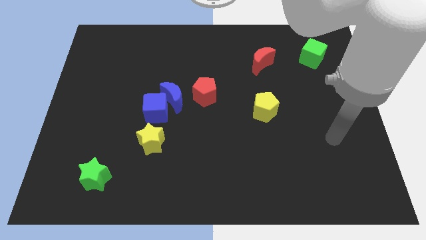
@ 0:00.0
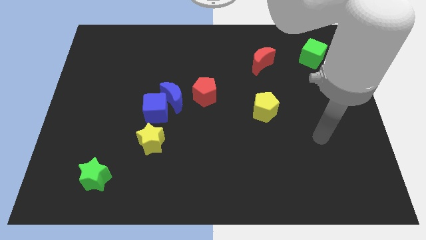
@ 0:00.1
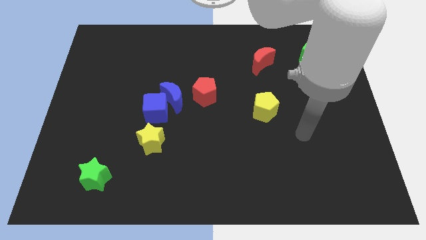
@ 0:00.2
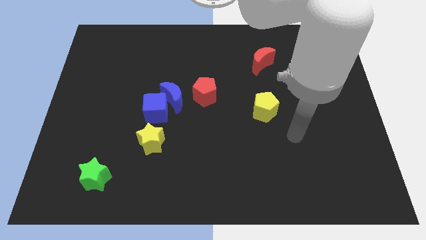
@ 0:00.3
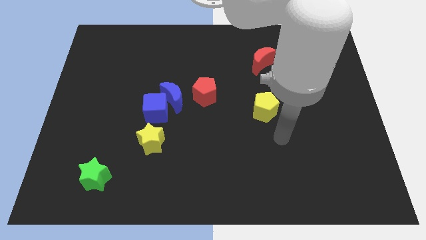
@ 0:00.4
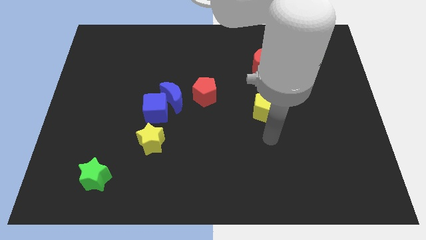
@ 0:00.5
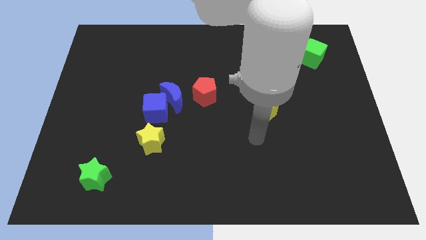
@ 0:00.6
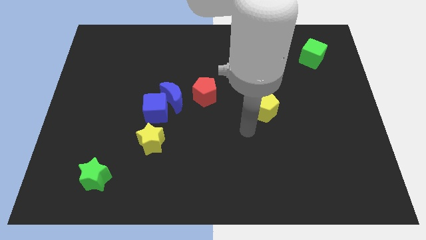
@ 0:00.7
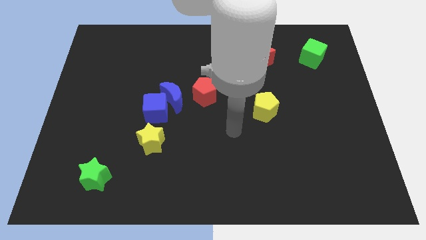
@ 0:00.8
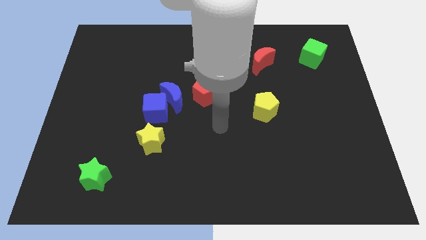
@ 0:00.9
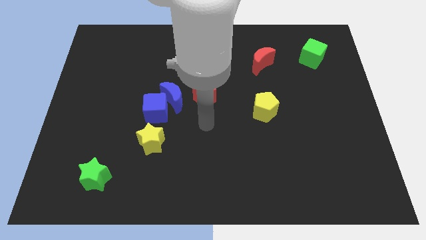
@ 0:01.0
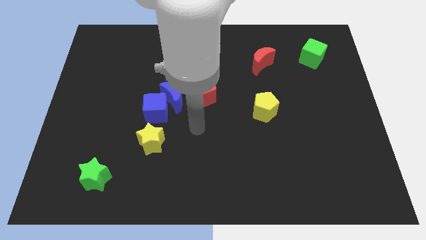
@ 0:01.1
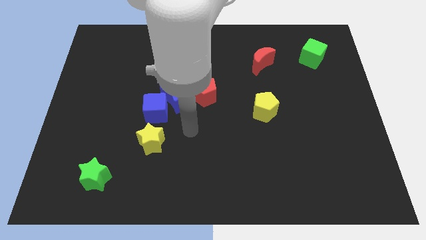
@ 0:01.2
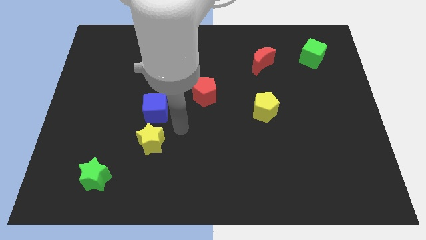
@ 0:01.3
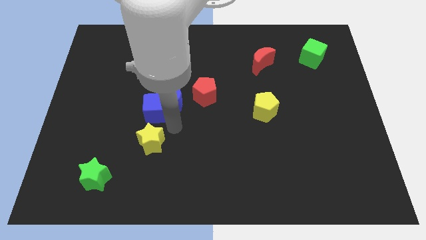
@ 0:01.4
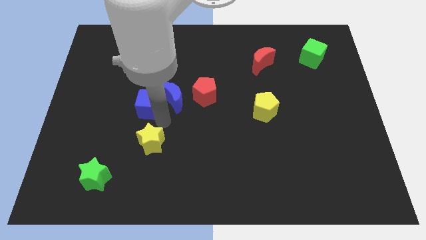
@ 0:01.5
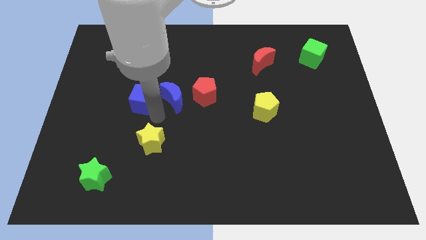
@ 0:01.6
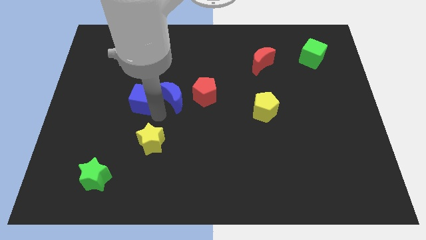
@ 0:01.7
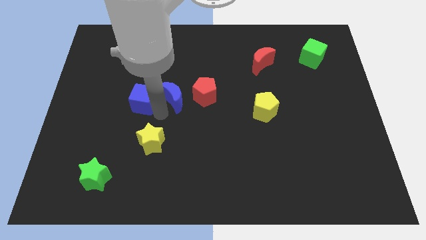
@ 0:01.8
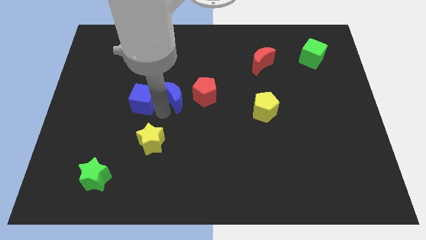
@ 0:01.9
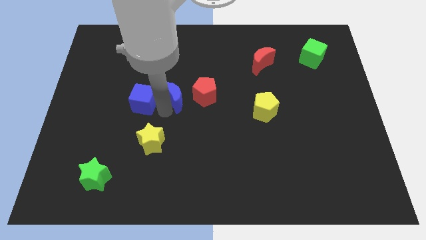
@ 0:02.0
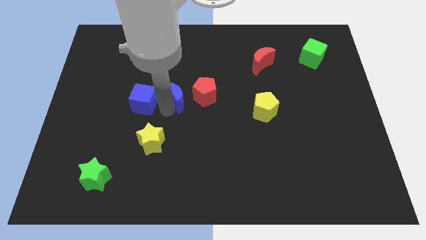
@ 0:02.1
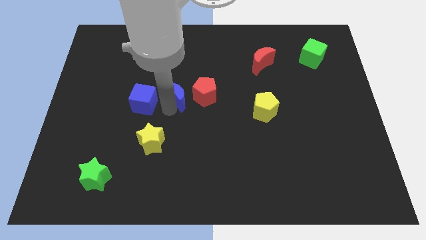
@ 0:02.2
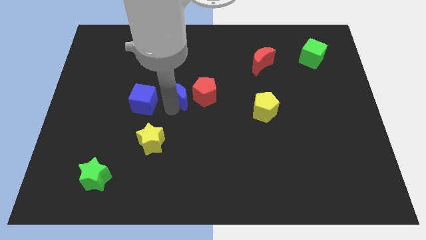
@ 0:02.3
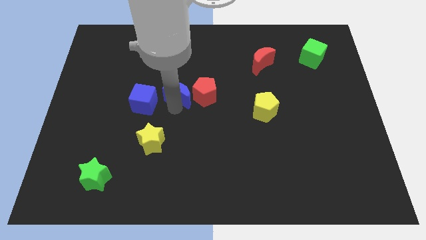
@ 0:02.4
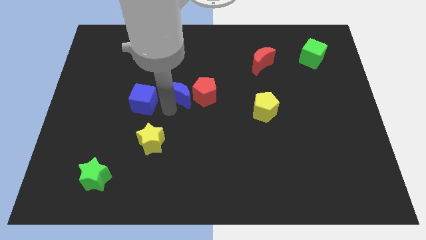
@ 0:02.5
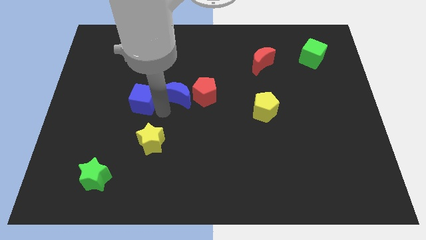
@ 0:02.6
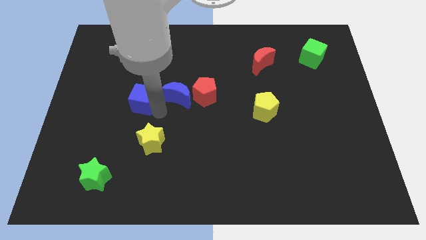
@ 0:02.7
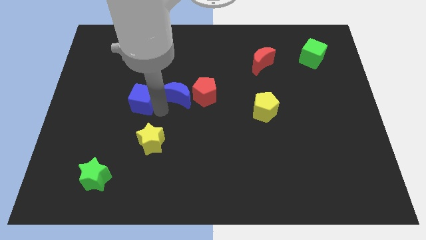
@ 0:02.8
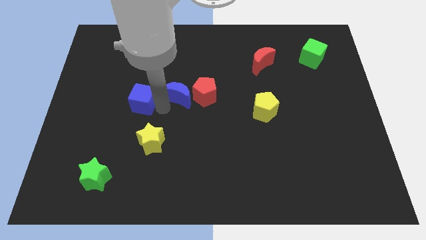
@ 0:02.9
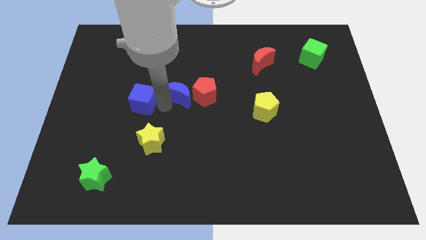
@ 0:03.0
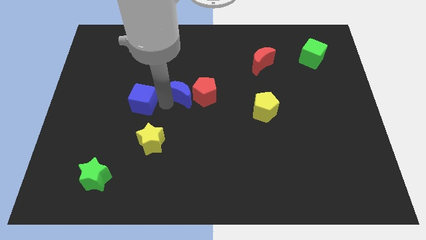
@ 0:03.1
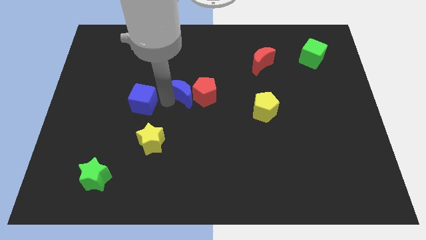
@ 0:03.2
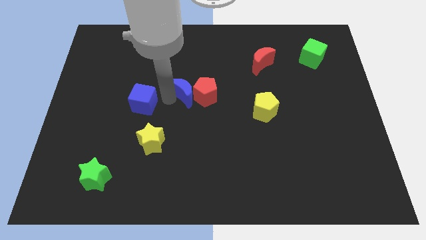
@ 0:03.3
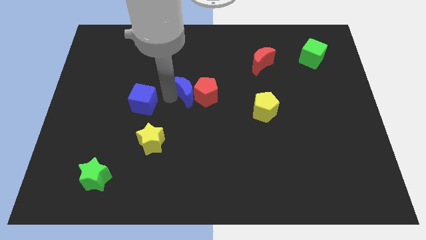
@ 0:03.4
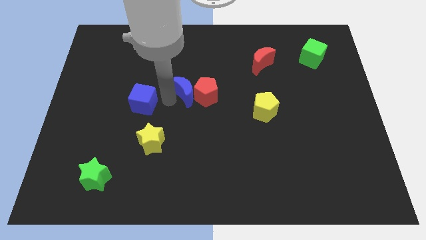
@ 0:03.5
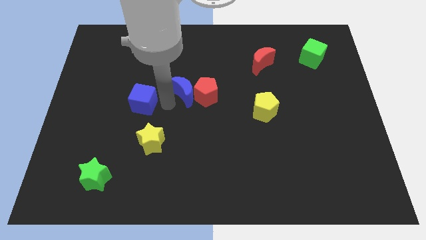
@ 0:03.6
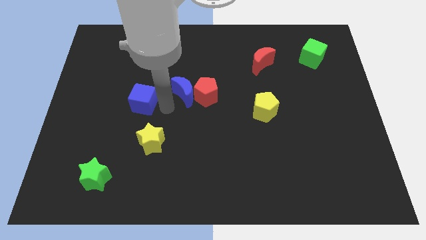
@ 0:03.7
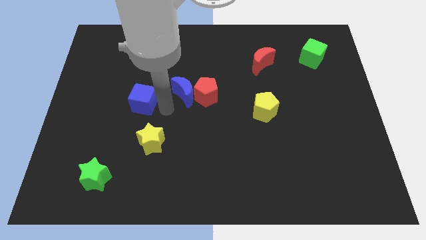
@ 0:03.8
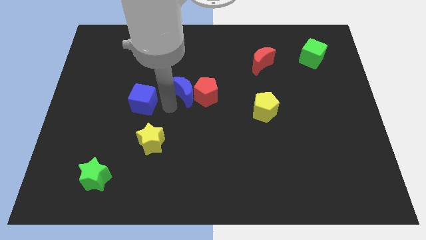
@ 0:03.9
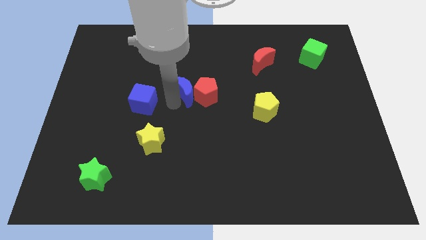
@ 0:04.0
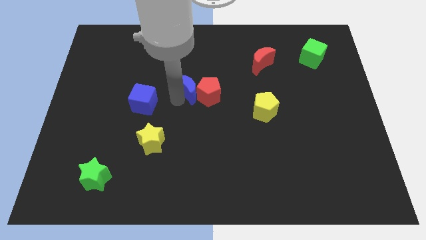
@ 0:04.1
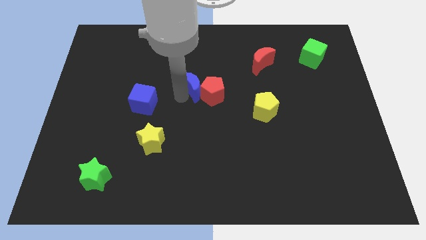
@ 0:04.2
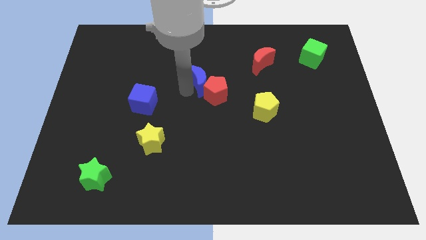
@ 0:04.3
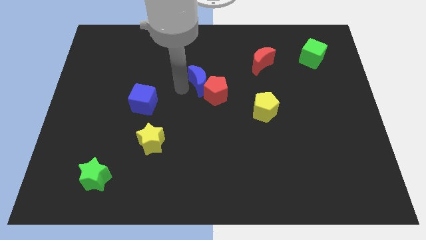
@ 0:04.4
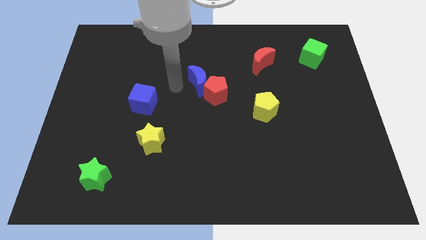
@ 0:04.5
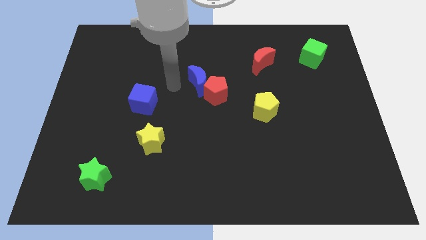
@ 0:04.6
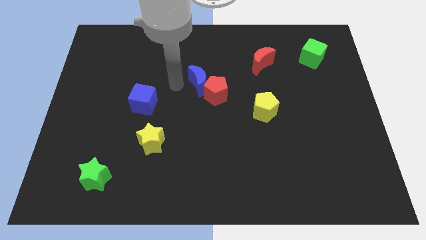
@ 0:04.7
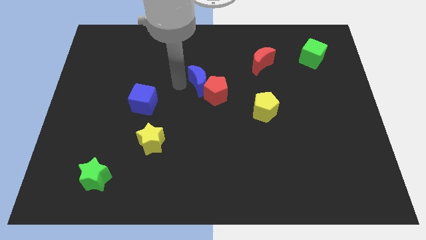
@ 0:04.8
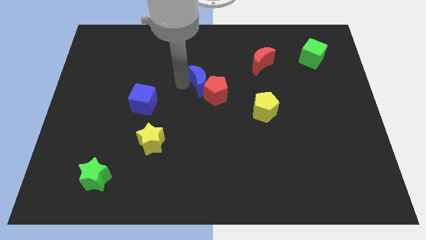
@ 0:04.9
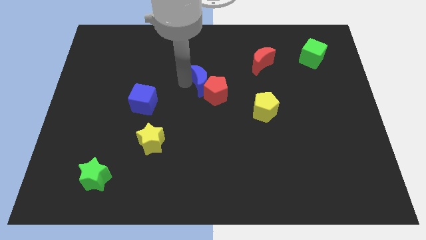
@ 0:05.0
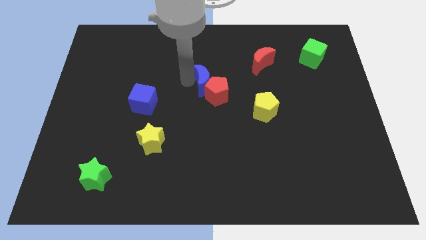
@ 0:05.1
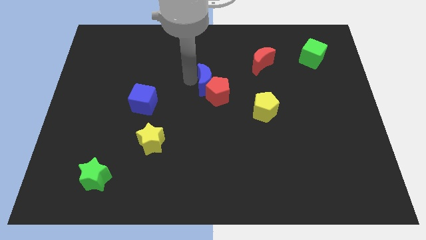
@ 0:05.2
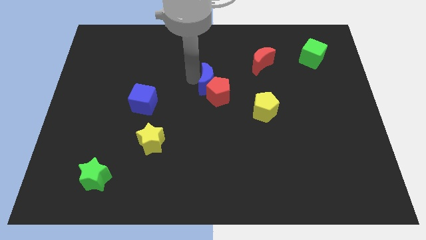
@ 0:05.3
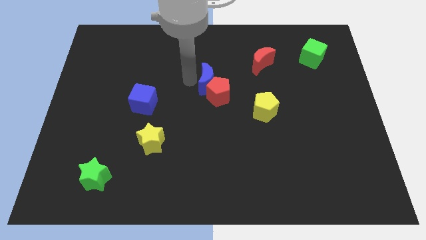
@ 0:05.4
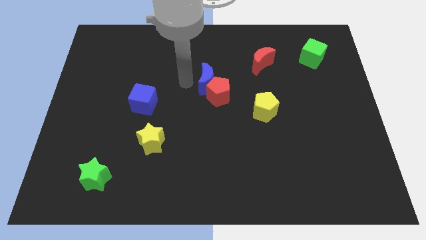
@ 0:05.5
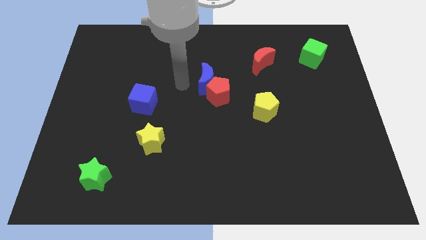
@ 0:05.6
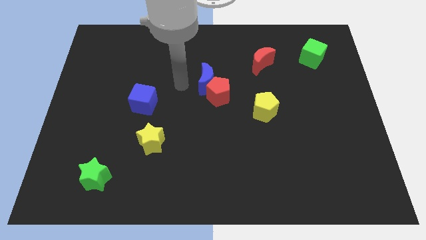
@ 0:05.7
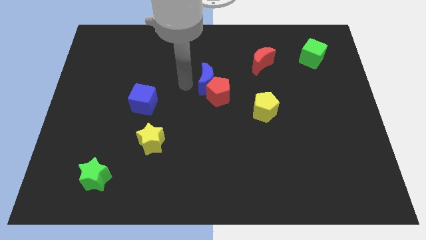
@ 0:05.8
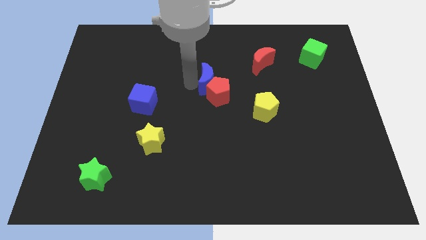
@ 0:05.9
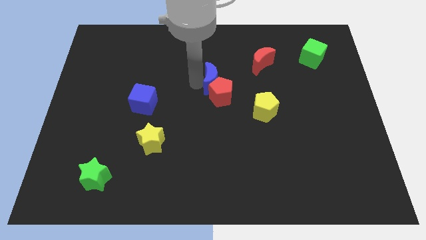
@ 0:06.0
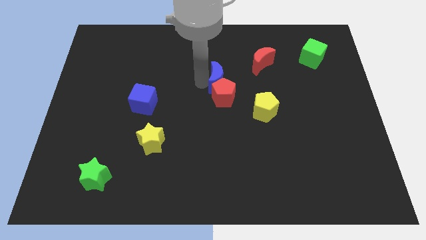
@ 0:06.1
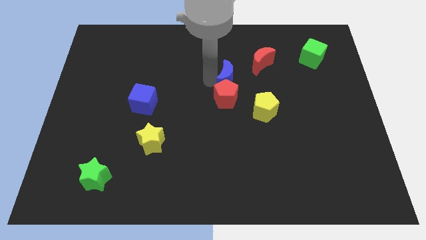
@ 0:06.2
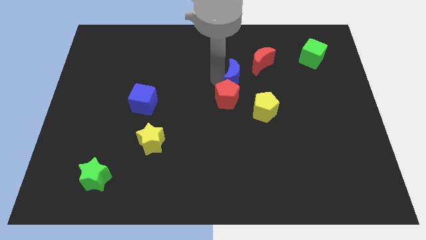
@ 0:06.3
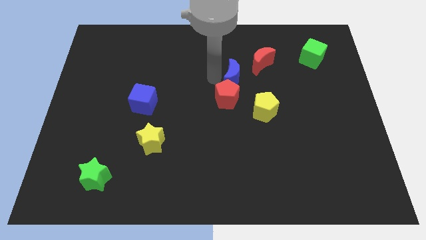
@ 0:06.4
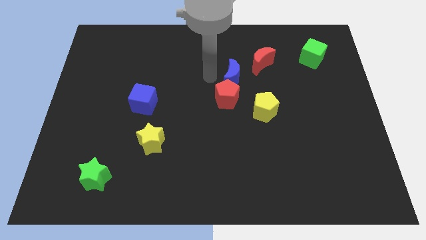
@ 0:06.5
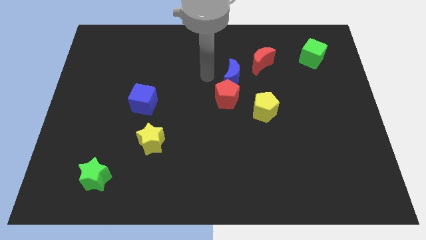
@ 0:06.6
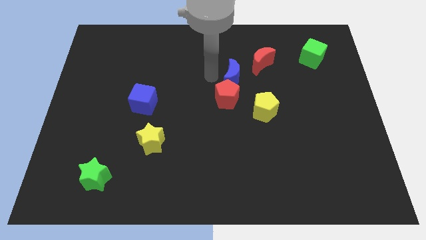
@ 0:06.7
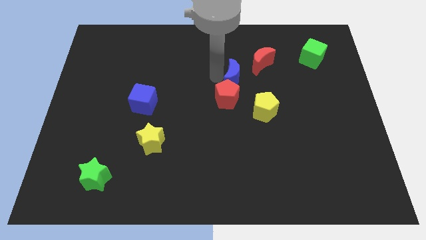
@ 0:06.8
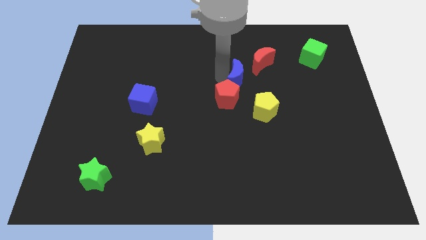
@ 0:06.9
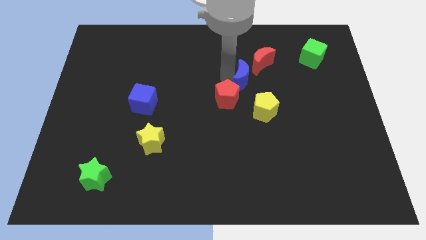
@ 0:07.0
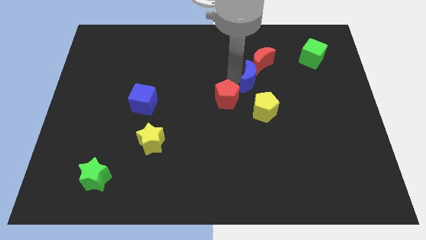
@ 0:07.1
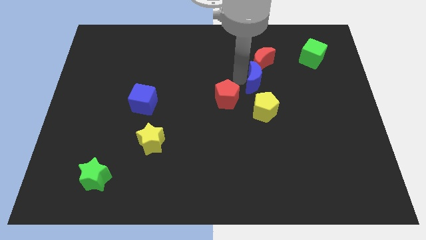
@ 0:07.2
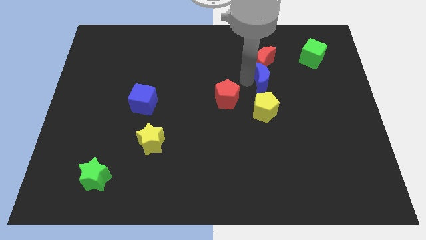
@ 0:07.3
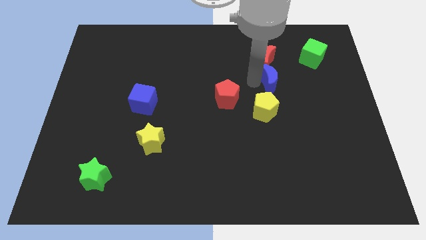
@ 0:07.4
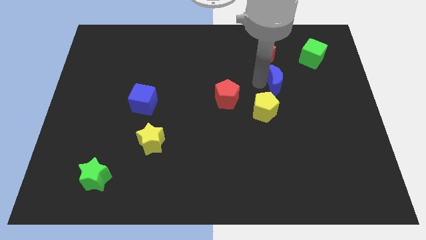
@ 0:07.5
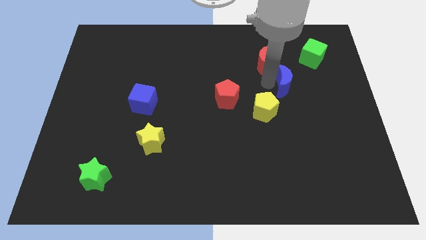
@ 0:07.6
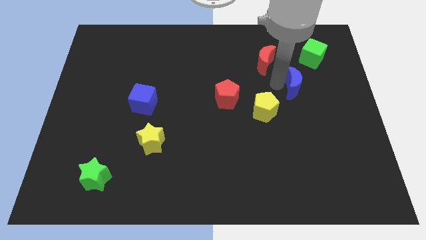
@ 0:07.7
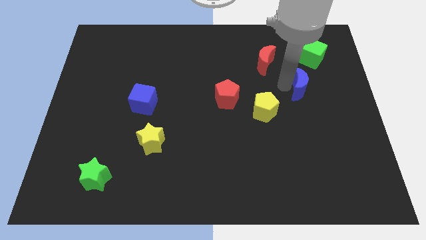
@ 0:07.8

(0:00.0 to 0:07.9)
move the blue moon to the bottom of the green cube
